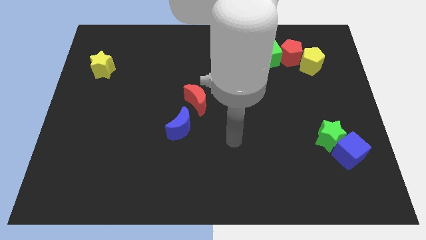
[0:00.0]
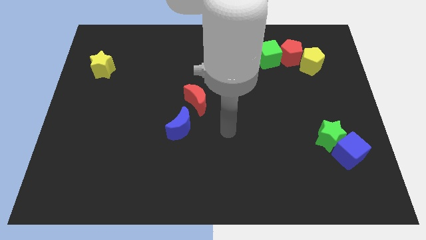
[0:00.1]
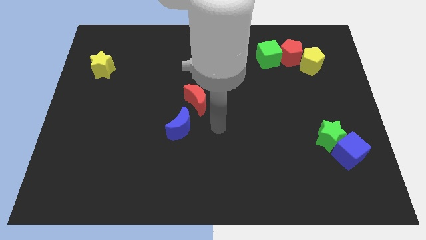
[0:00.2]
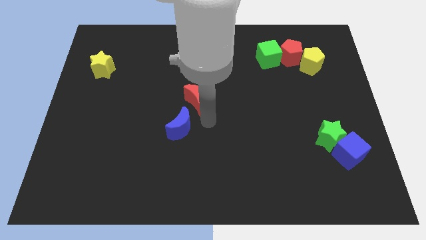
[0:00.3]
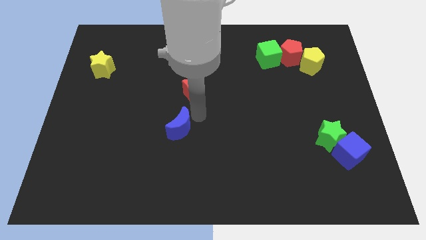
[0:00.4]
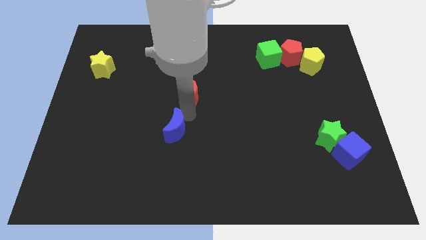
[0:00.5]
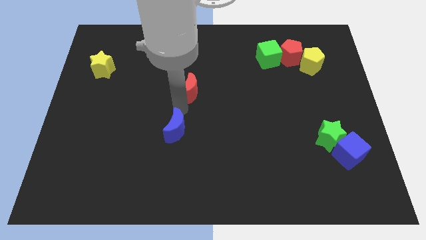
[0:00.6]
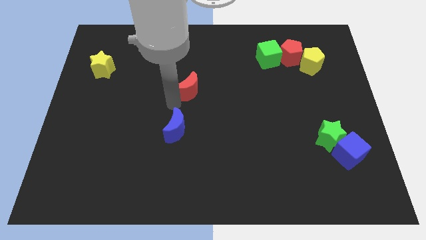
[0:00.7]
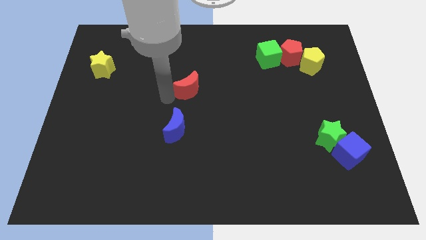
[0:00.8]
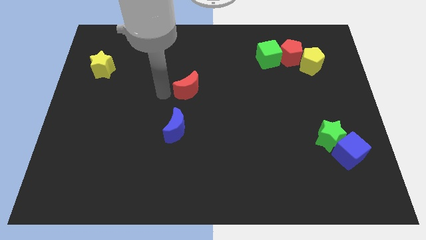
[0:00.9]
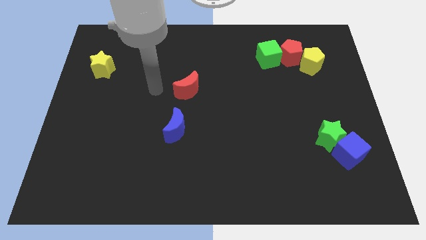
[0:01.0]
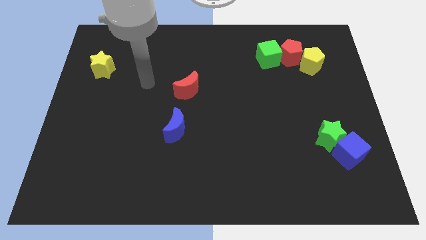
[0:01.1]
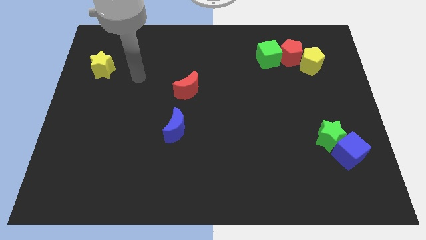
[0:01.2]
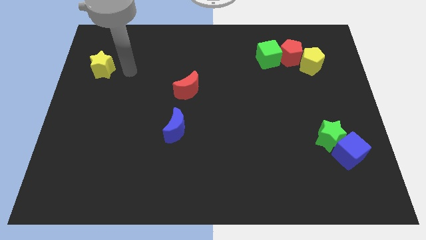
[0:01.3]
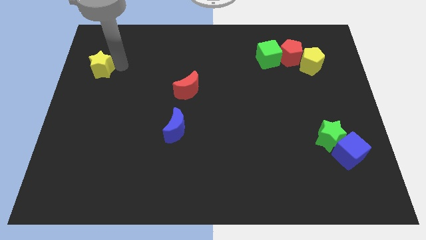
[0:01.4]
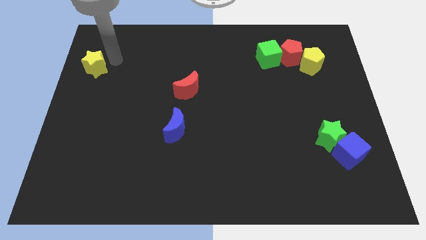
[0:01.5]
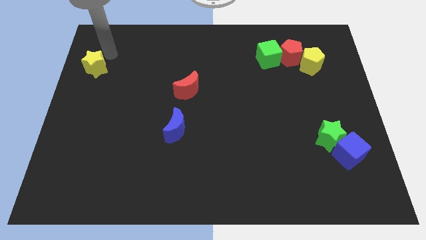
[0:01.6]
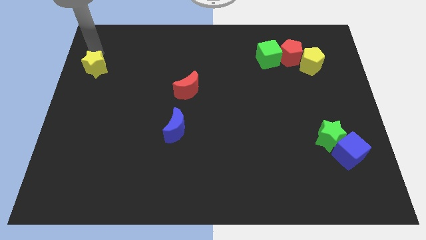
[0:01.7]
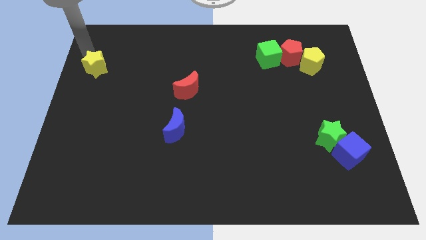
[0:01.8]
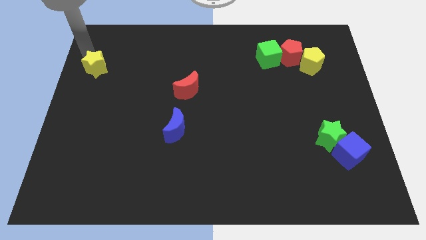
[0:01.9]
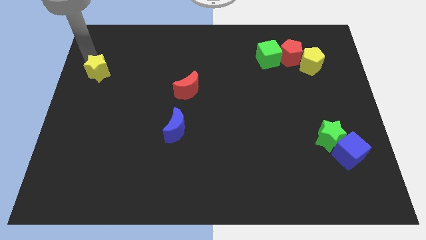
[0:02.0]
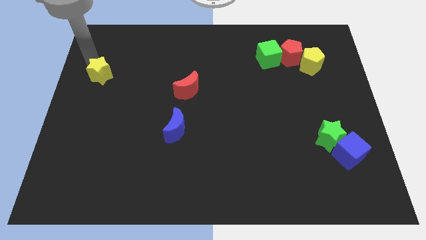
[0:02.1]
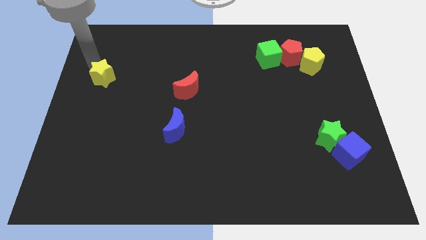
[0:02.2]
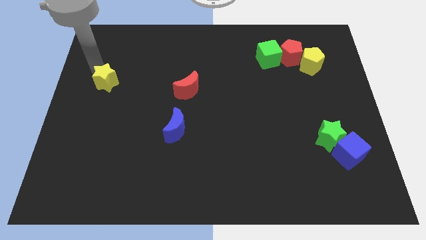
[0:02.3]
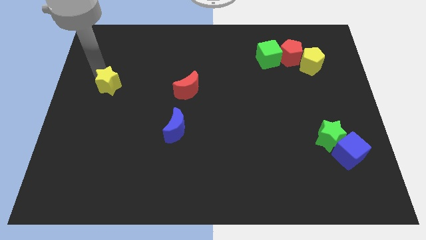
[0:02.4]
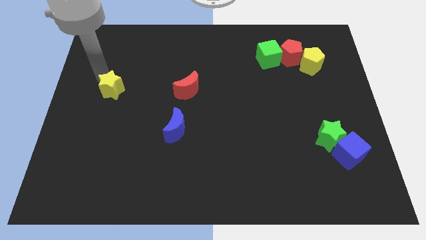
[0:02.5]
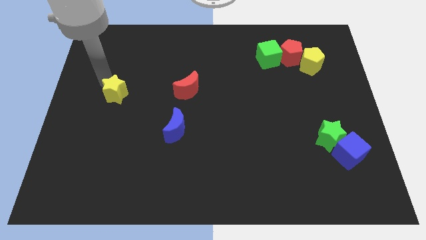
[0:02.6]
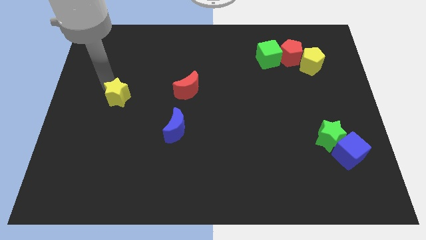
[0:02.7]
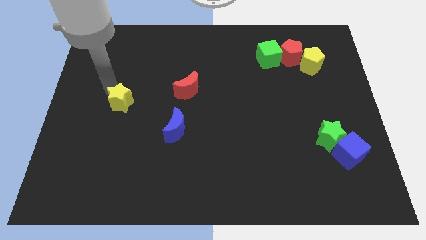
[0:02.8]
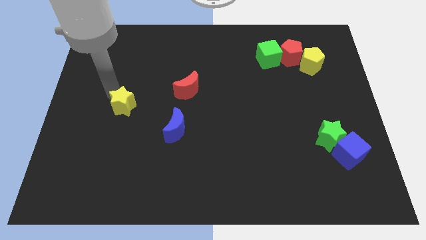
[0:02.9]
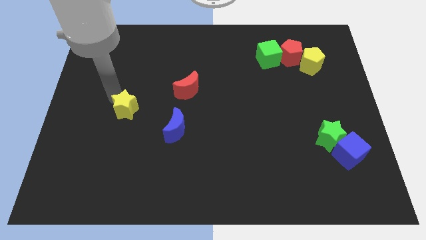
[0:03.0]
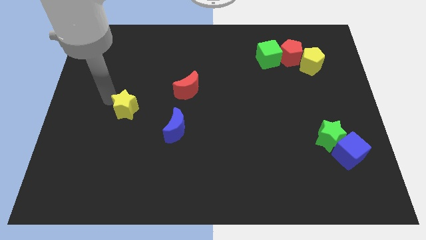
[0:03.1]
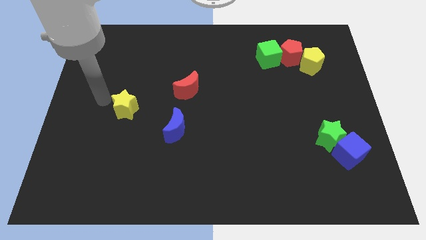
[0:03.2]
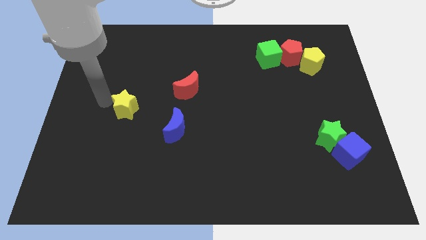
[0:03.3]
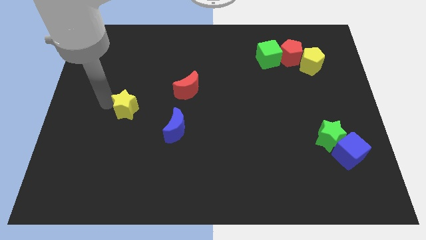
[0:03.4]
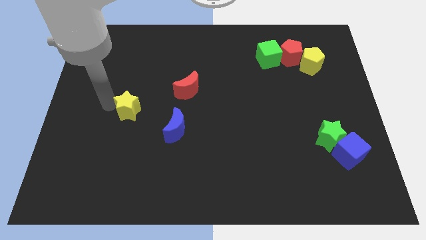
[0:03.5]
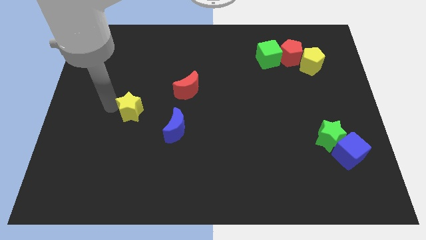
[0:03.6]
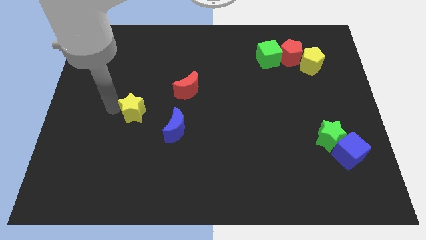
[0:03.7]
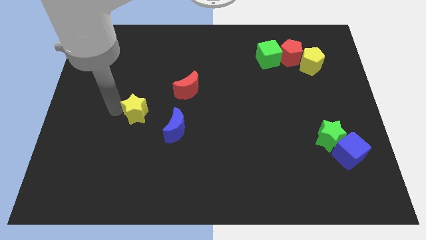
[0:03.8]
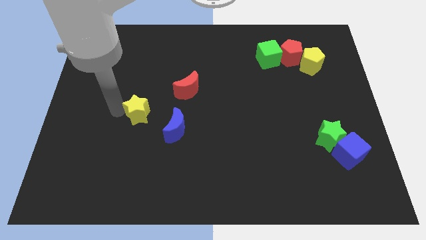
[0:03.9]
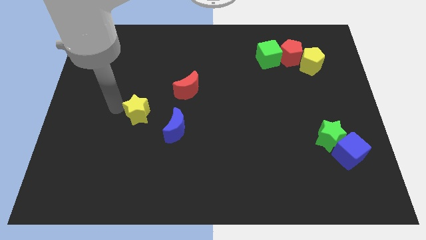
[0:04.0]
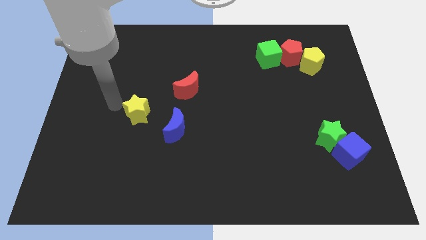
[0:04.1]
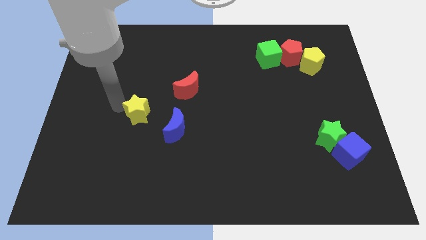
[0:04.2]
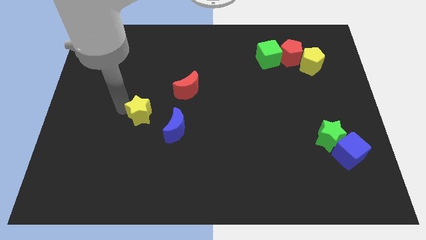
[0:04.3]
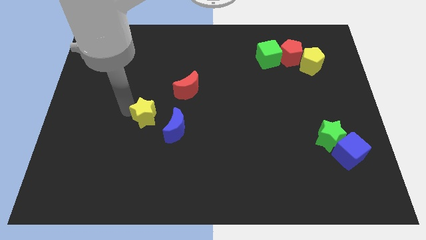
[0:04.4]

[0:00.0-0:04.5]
push the yellow star downwards and then to the right

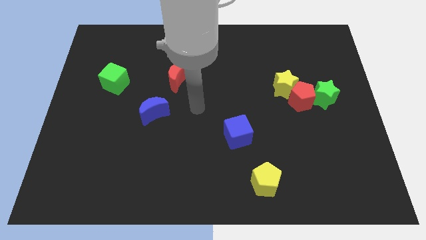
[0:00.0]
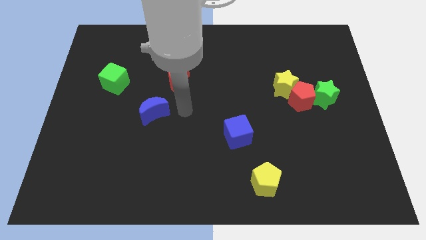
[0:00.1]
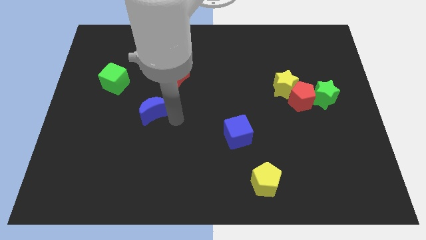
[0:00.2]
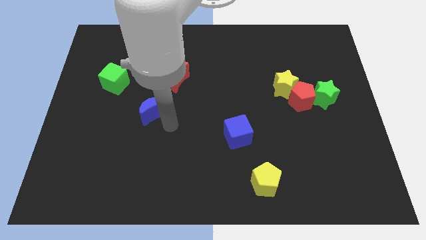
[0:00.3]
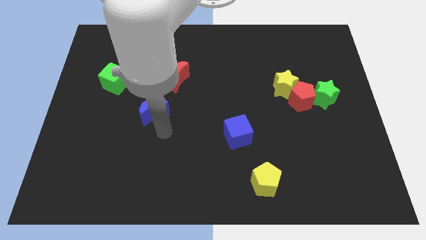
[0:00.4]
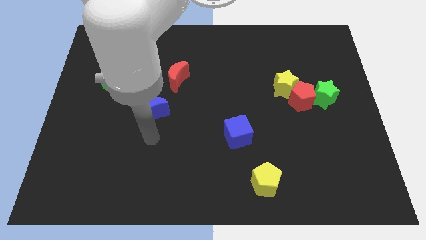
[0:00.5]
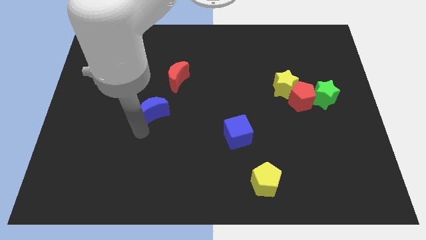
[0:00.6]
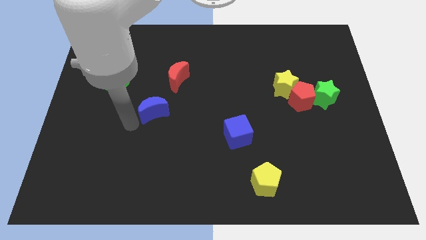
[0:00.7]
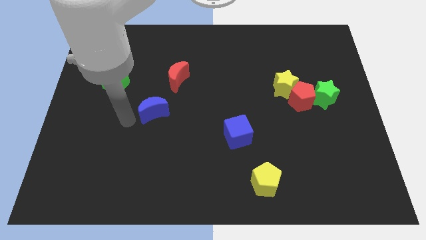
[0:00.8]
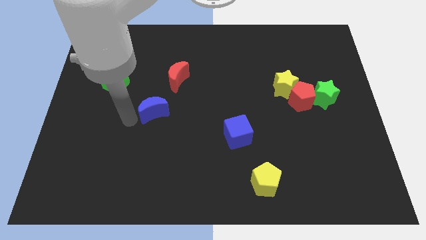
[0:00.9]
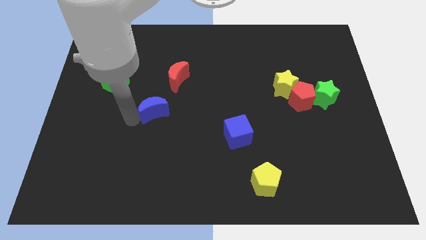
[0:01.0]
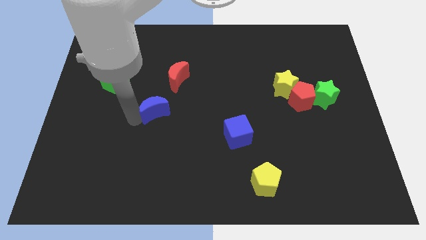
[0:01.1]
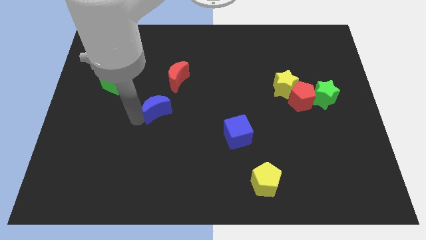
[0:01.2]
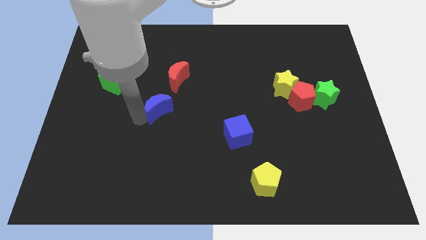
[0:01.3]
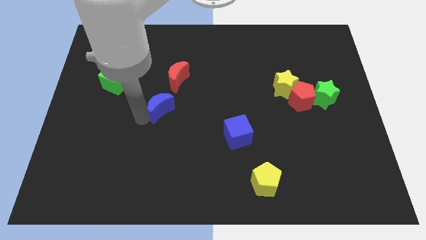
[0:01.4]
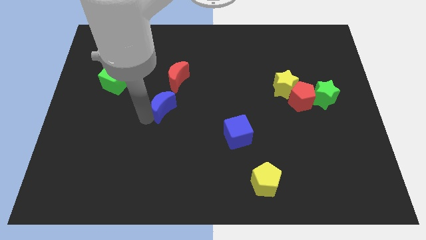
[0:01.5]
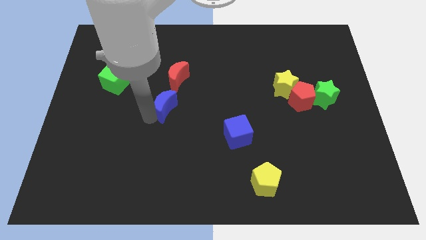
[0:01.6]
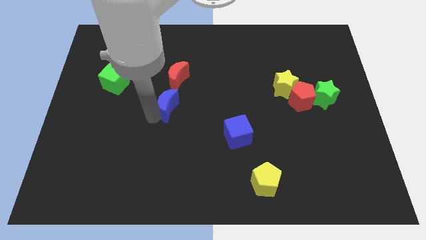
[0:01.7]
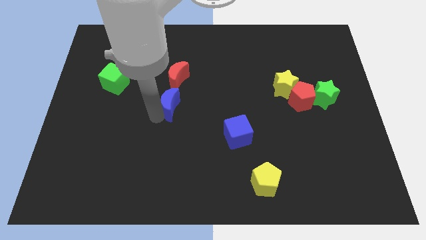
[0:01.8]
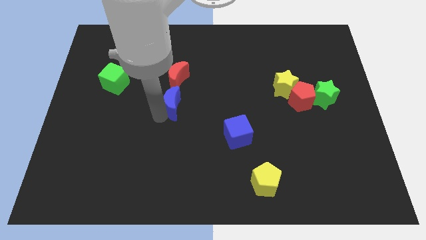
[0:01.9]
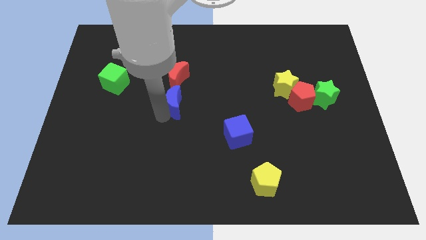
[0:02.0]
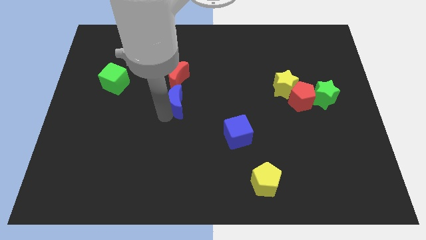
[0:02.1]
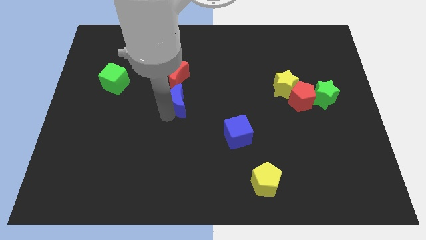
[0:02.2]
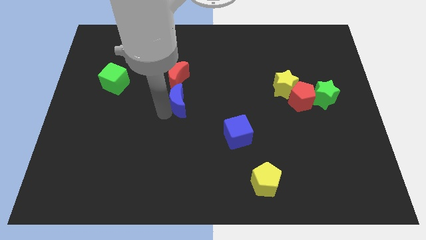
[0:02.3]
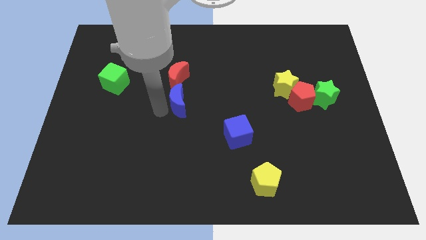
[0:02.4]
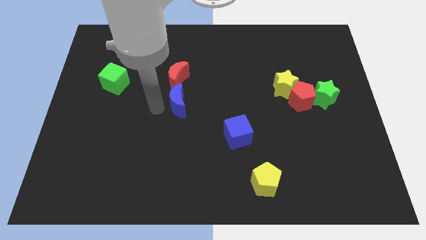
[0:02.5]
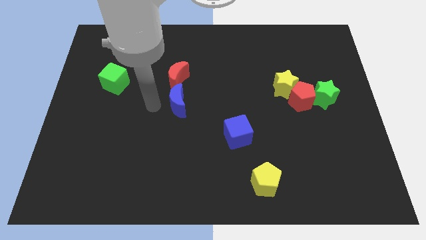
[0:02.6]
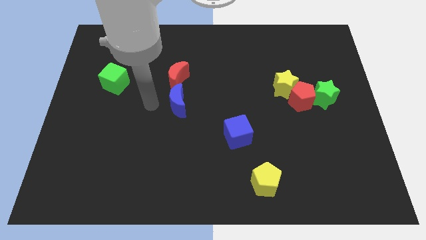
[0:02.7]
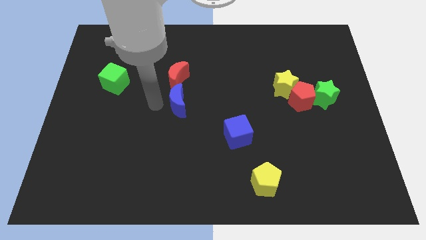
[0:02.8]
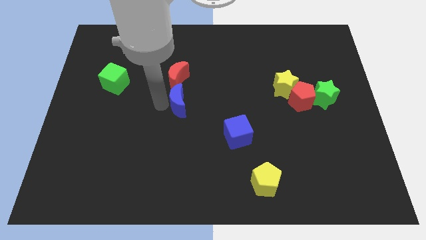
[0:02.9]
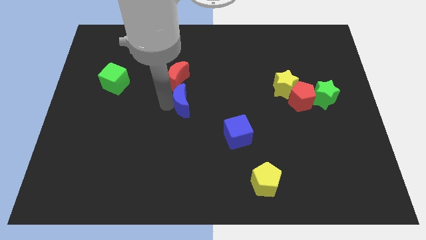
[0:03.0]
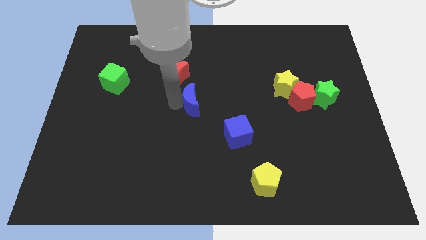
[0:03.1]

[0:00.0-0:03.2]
slightly slide the blue moon to the right
